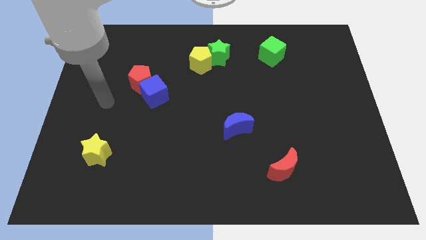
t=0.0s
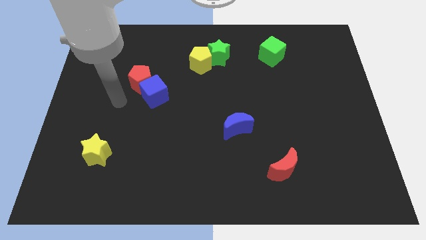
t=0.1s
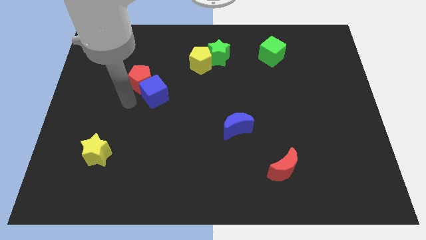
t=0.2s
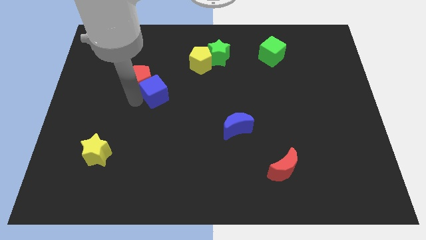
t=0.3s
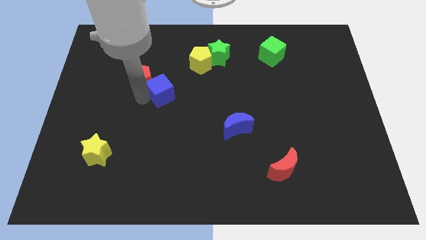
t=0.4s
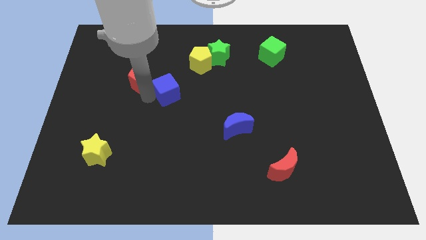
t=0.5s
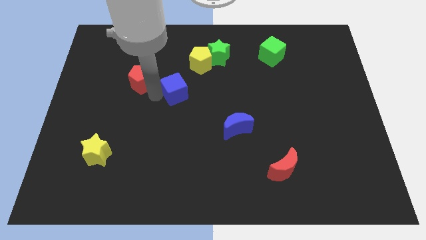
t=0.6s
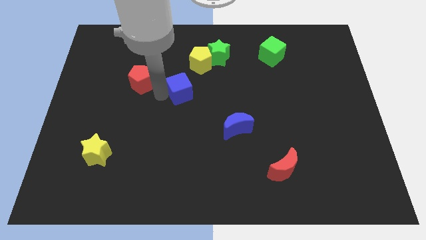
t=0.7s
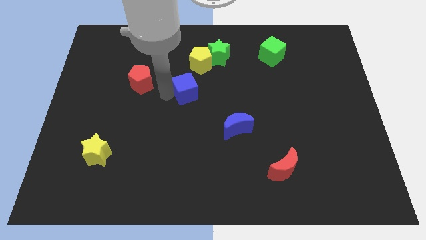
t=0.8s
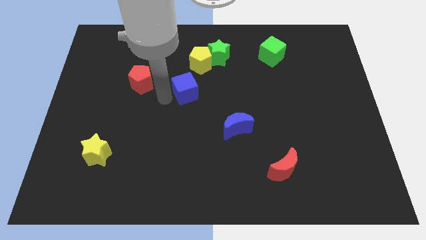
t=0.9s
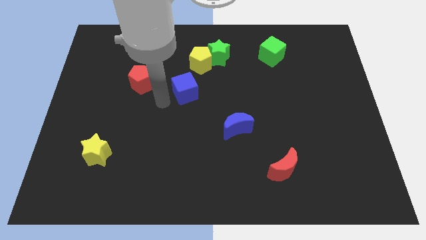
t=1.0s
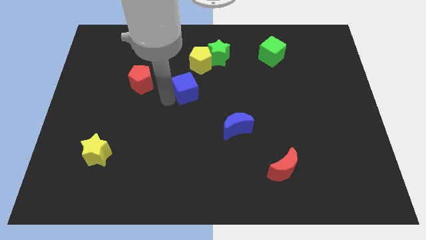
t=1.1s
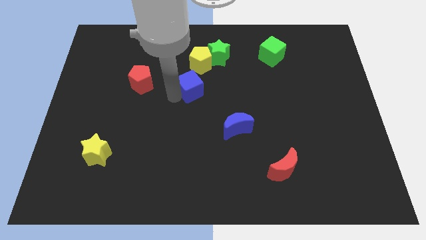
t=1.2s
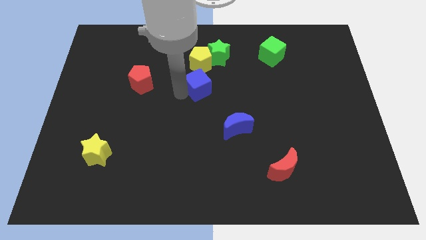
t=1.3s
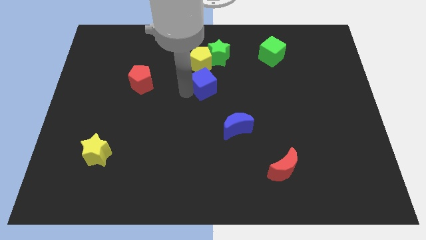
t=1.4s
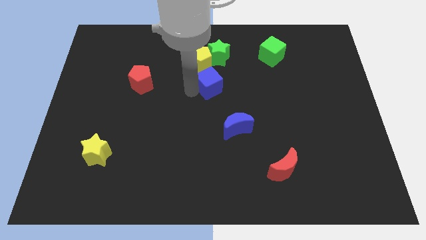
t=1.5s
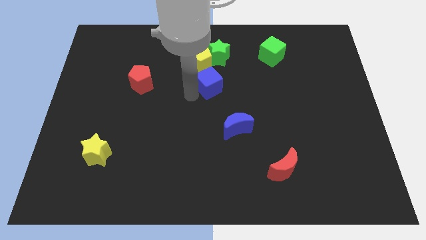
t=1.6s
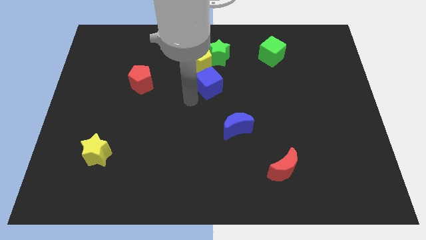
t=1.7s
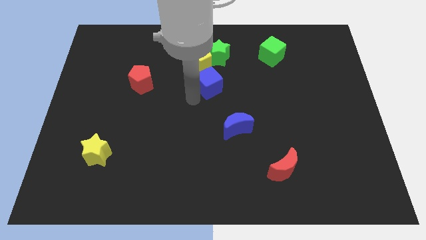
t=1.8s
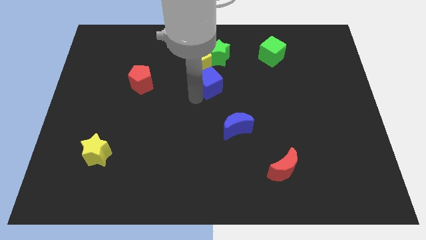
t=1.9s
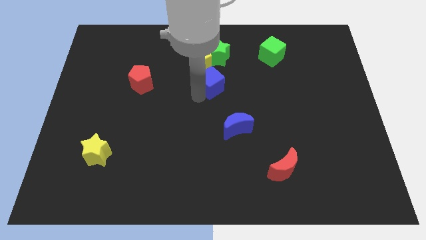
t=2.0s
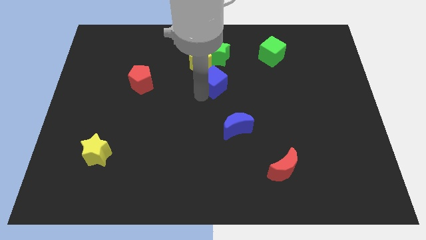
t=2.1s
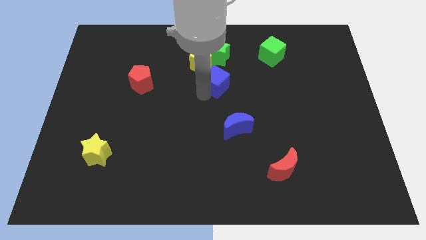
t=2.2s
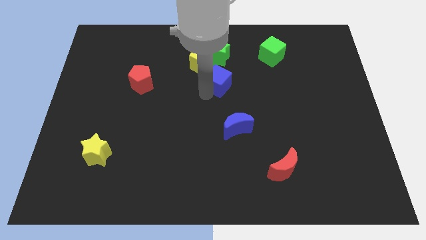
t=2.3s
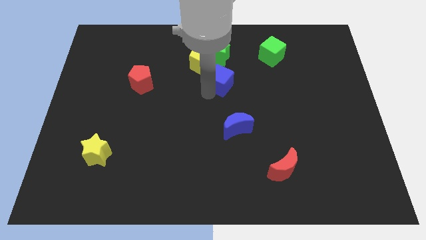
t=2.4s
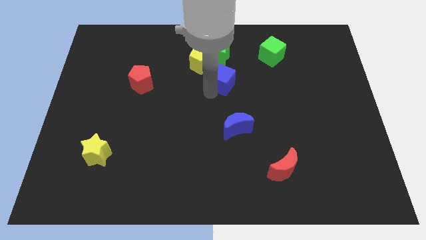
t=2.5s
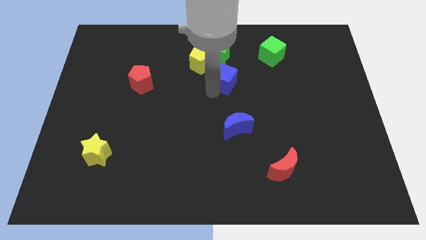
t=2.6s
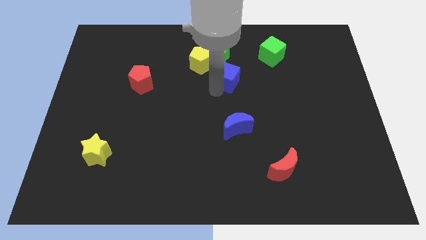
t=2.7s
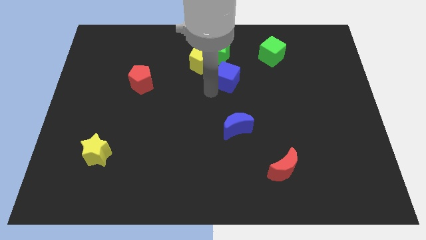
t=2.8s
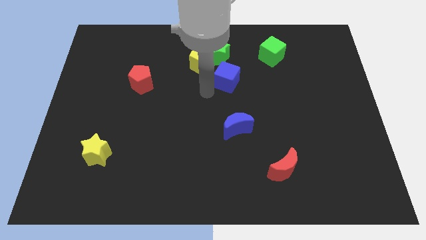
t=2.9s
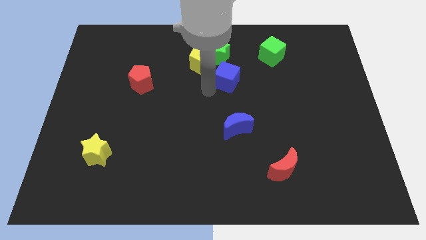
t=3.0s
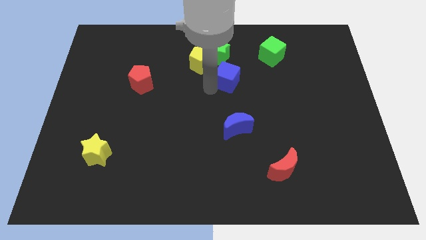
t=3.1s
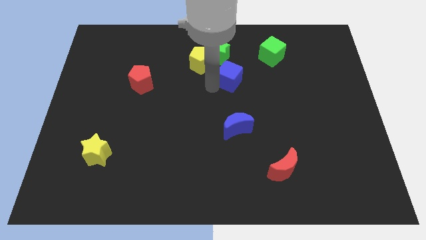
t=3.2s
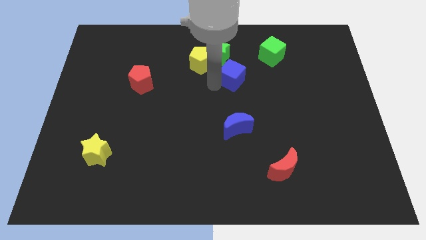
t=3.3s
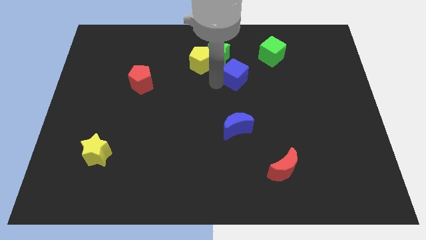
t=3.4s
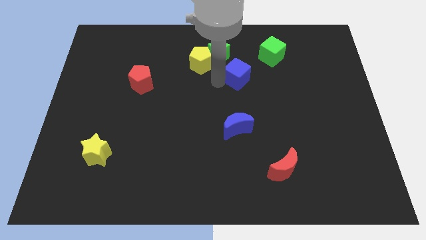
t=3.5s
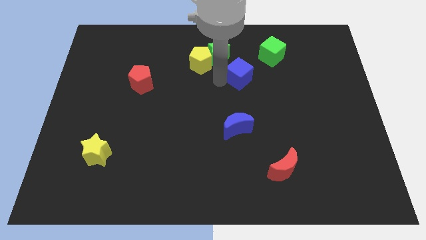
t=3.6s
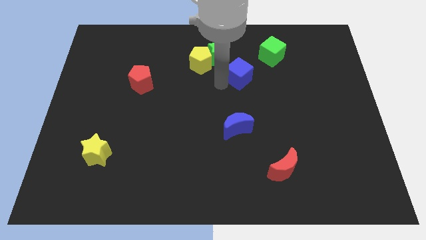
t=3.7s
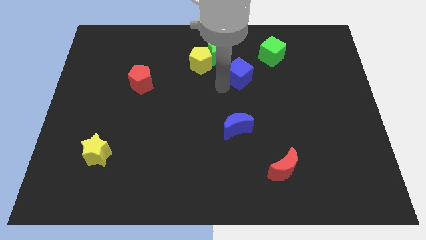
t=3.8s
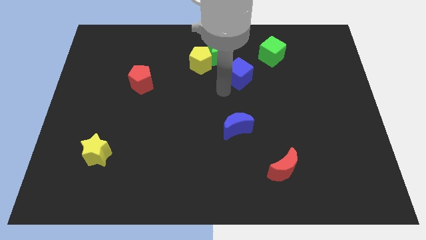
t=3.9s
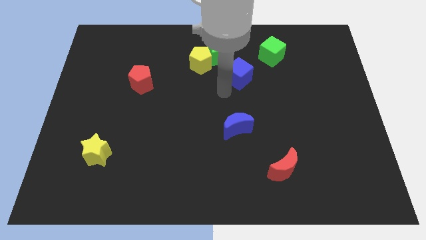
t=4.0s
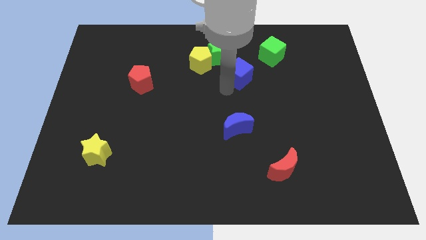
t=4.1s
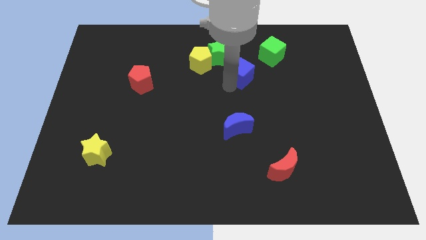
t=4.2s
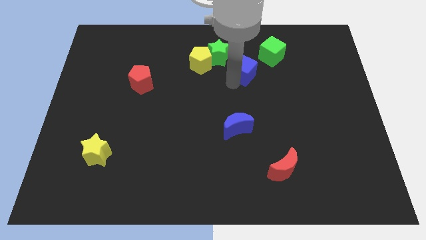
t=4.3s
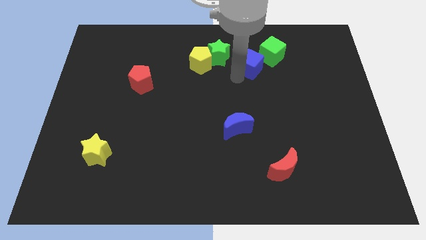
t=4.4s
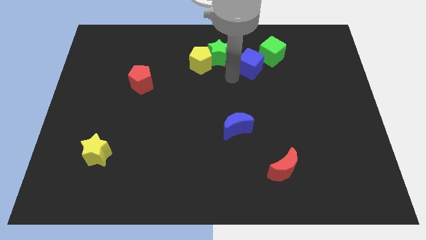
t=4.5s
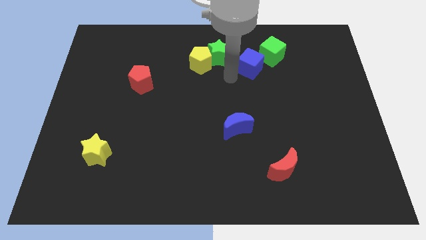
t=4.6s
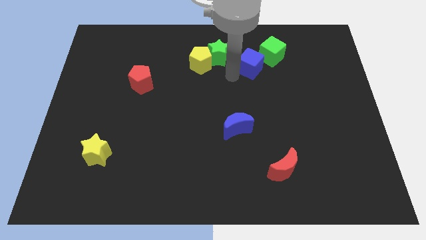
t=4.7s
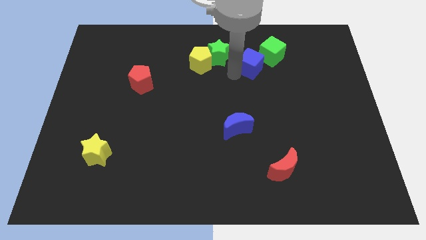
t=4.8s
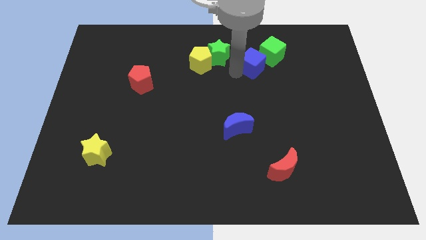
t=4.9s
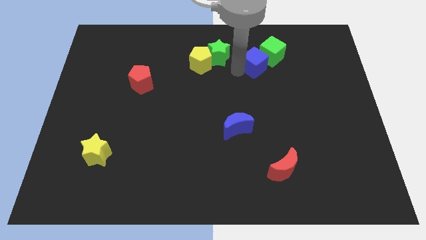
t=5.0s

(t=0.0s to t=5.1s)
push the blue cube to the green cube

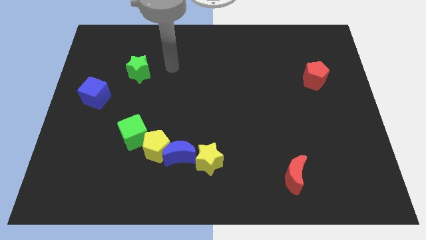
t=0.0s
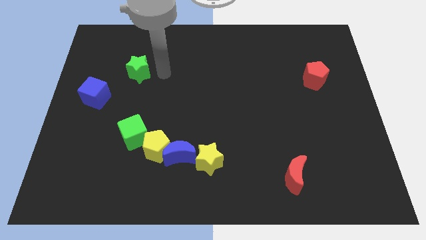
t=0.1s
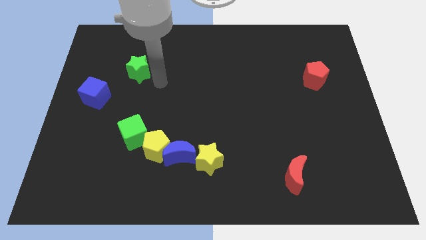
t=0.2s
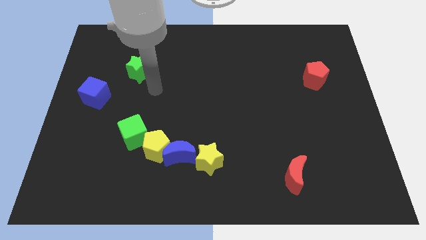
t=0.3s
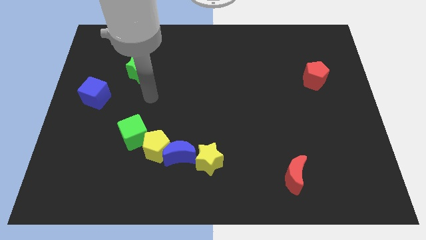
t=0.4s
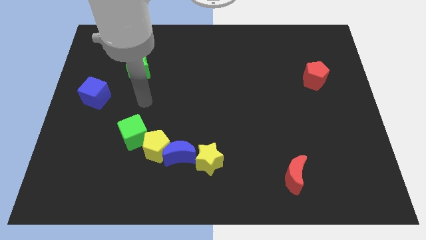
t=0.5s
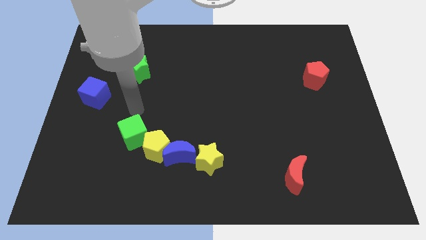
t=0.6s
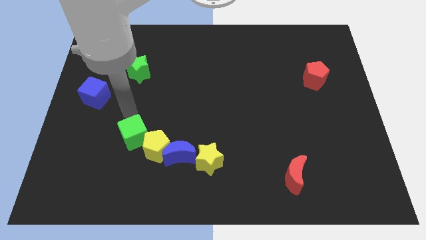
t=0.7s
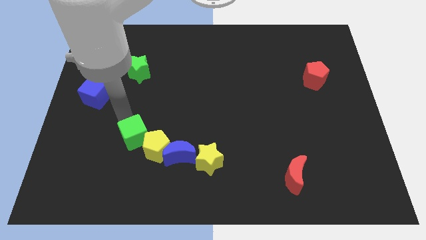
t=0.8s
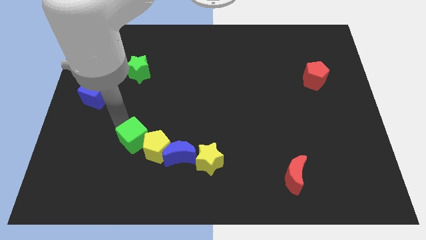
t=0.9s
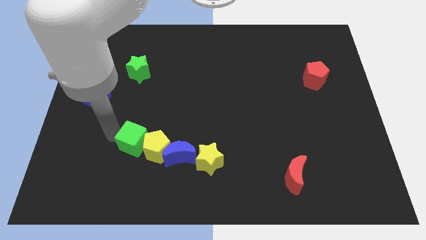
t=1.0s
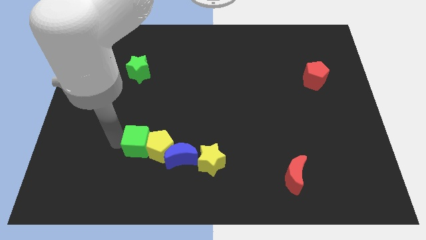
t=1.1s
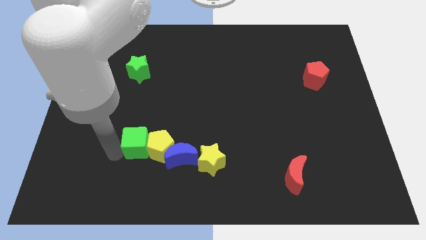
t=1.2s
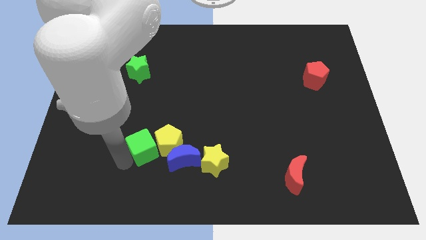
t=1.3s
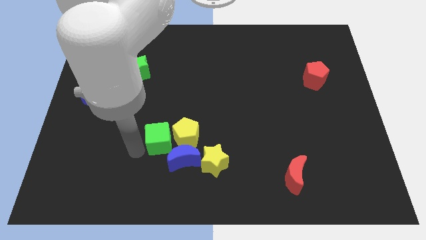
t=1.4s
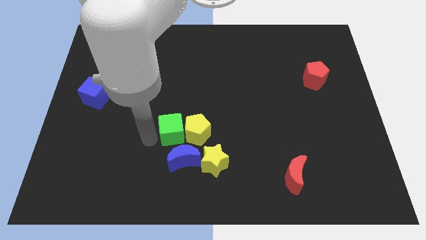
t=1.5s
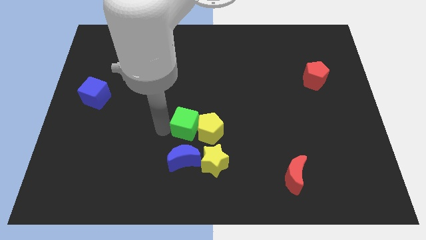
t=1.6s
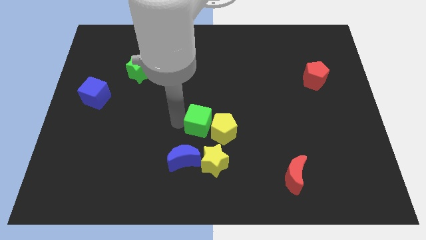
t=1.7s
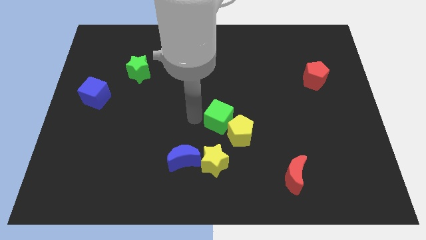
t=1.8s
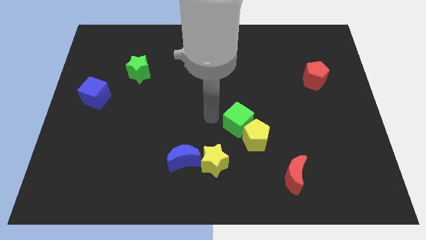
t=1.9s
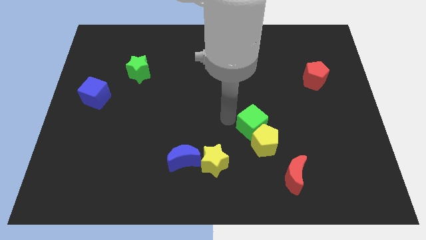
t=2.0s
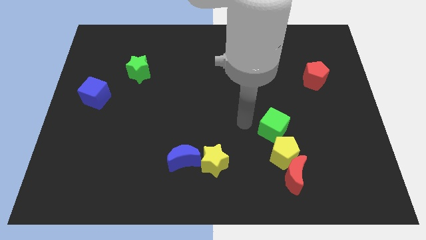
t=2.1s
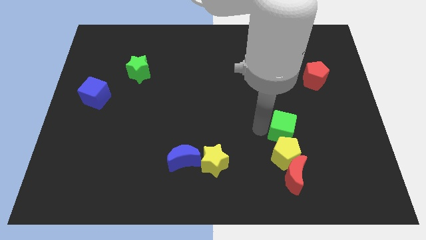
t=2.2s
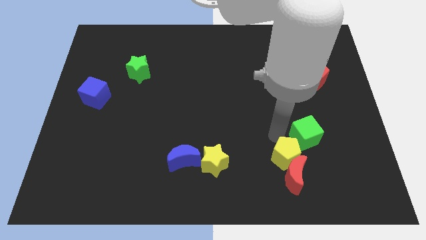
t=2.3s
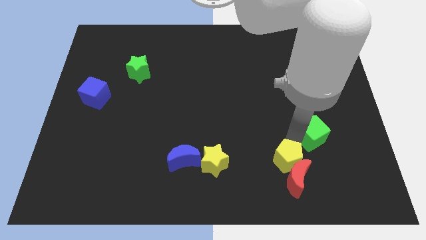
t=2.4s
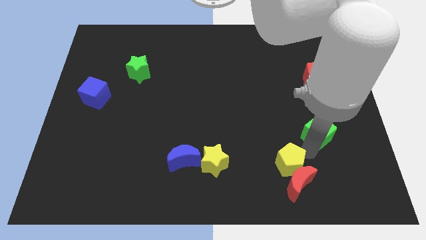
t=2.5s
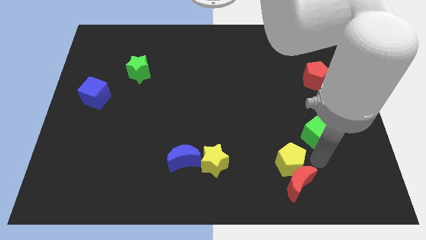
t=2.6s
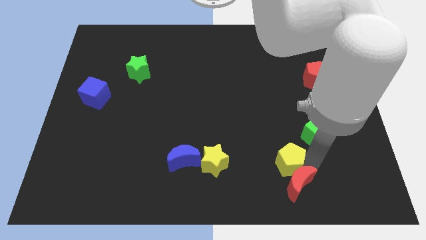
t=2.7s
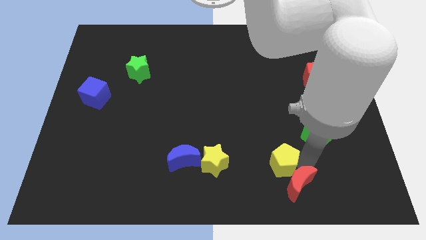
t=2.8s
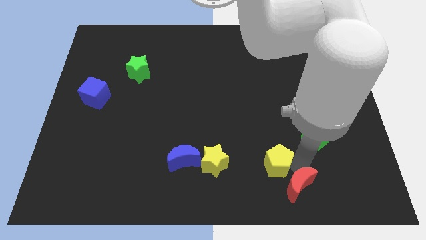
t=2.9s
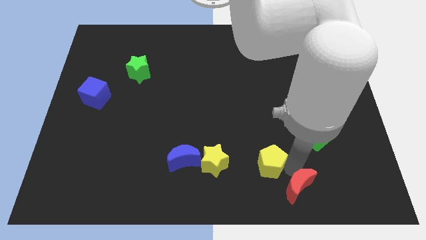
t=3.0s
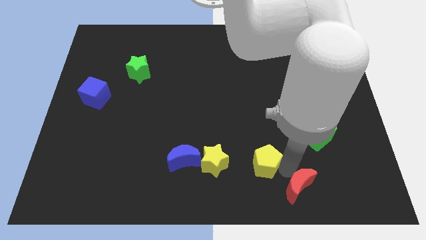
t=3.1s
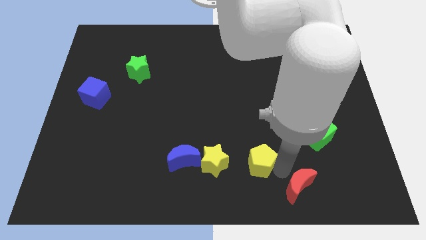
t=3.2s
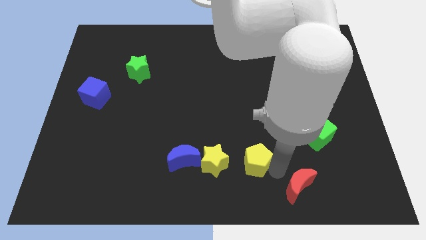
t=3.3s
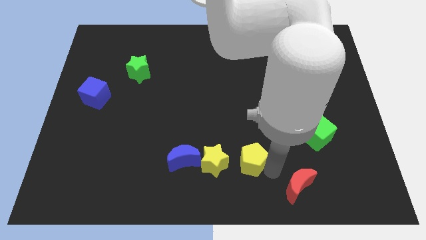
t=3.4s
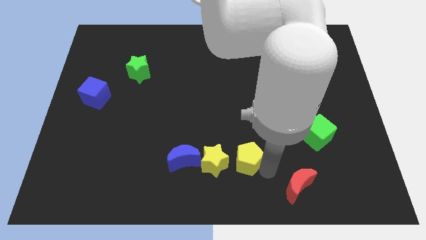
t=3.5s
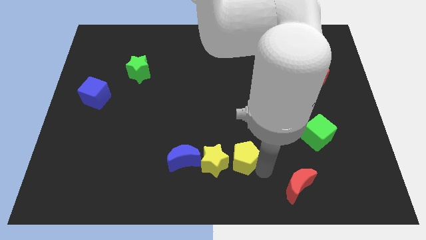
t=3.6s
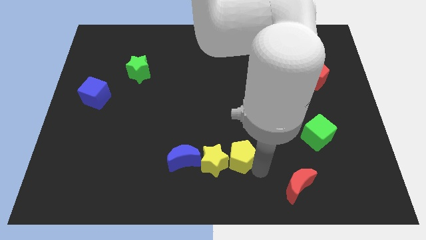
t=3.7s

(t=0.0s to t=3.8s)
move the yellow pentagon towards the yellow star
